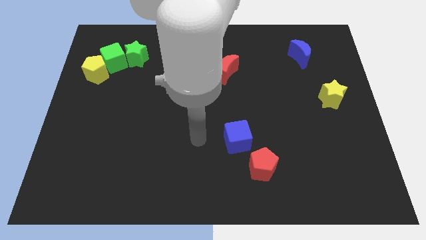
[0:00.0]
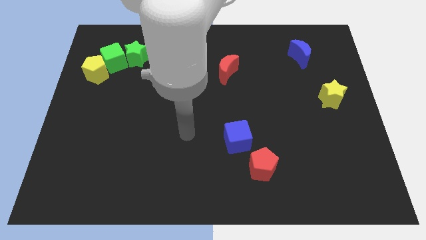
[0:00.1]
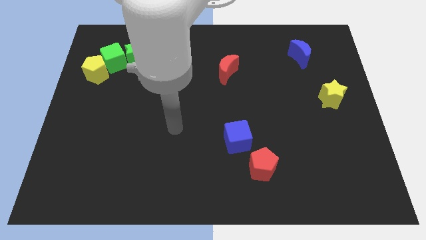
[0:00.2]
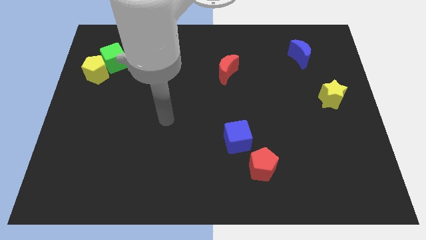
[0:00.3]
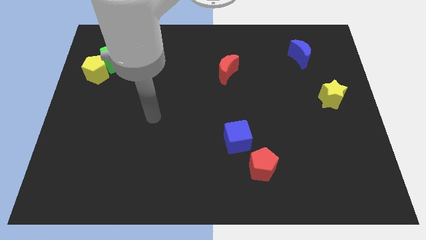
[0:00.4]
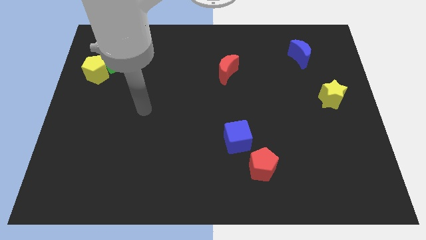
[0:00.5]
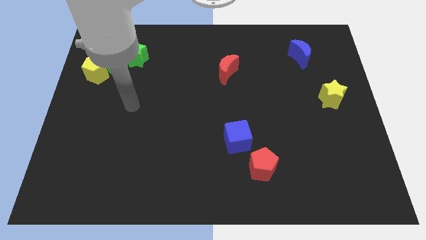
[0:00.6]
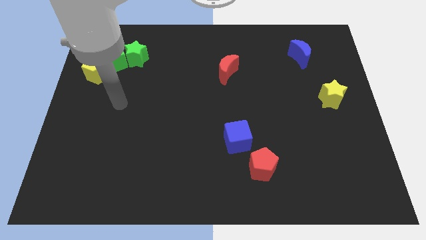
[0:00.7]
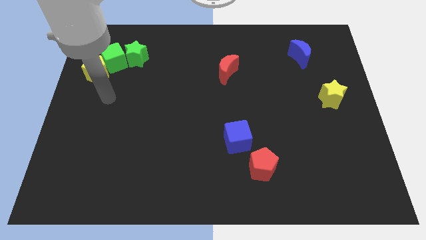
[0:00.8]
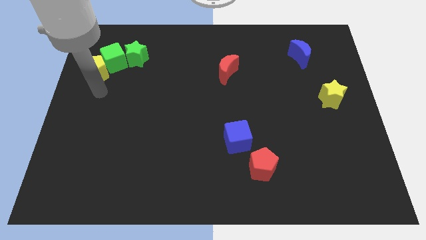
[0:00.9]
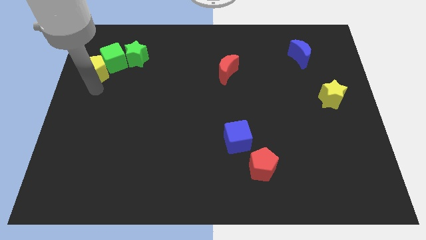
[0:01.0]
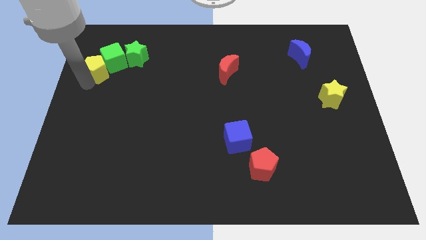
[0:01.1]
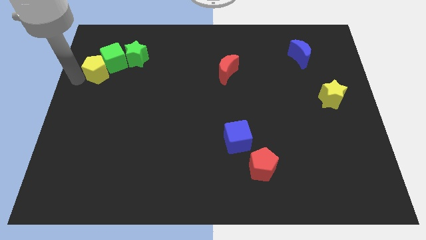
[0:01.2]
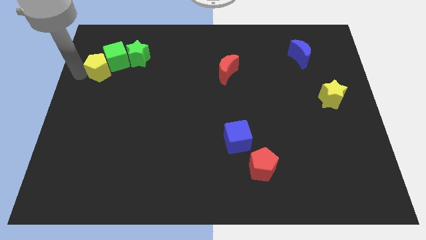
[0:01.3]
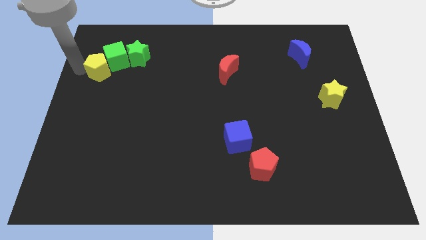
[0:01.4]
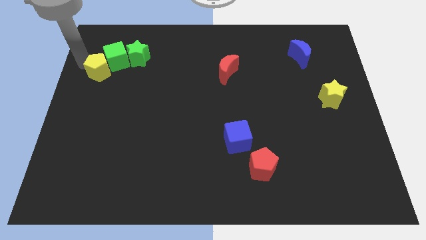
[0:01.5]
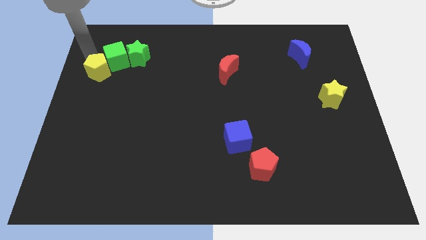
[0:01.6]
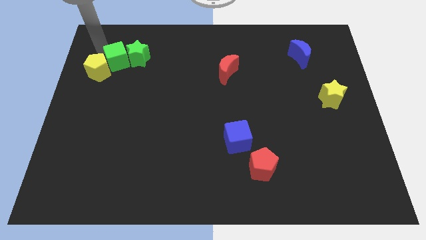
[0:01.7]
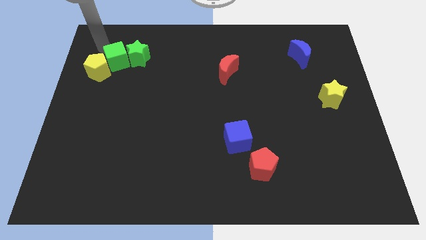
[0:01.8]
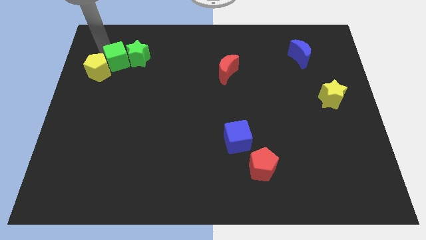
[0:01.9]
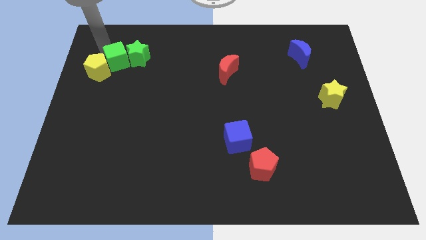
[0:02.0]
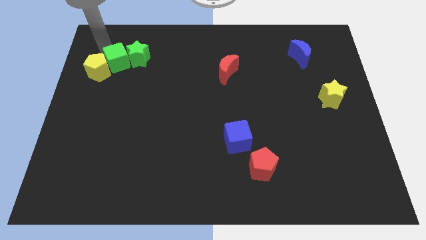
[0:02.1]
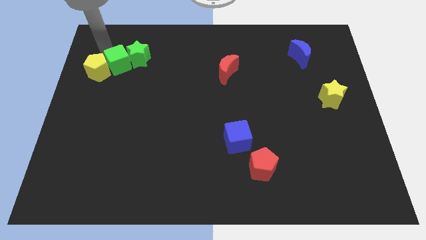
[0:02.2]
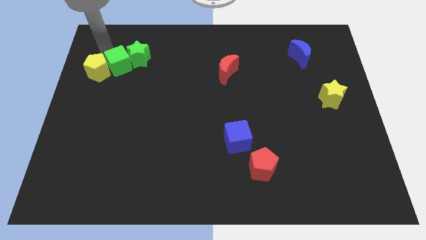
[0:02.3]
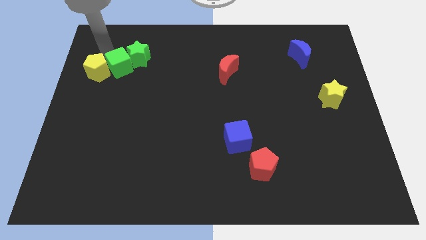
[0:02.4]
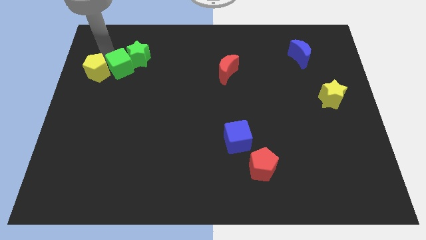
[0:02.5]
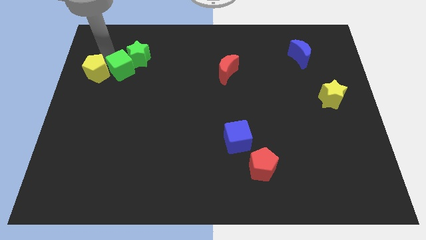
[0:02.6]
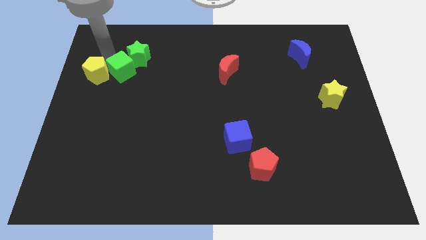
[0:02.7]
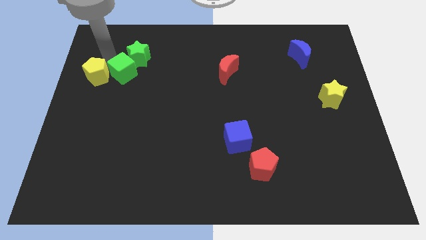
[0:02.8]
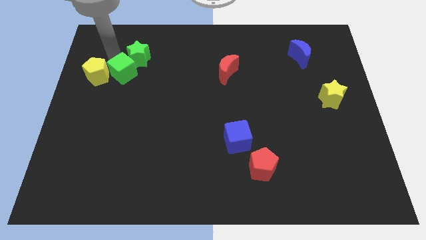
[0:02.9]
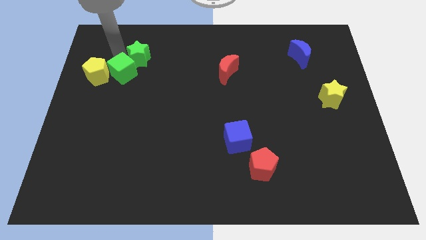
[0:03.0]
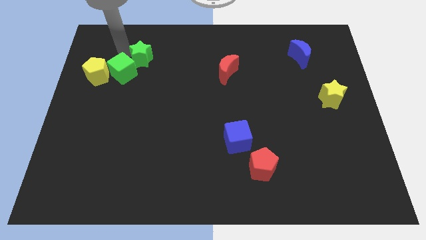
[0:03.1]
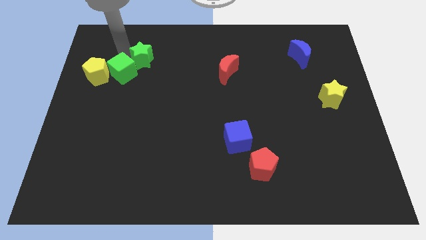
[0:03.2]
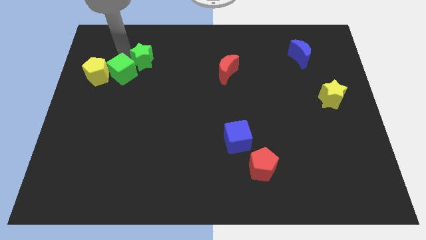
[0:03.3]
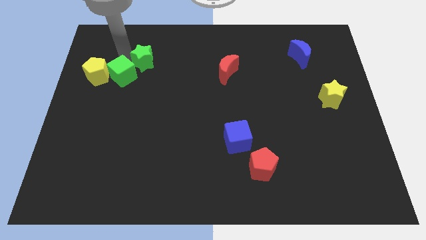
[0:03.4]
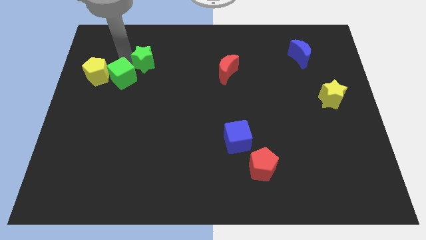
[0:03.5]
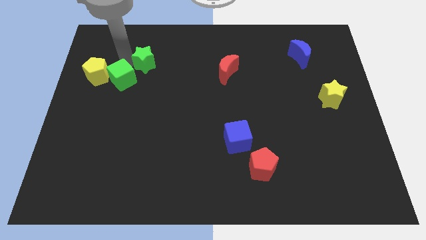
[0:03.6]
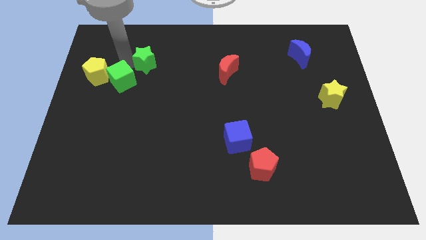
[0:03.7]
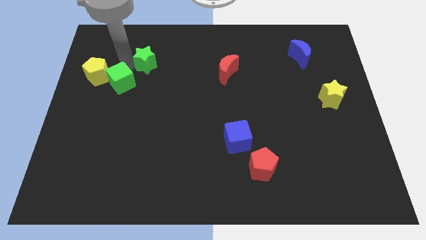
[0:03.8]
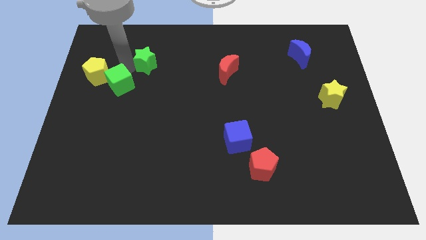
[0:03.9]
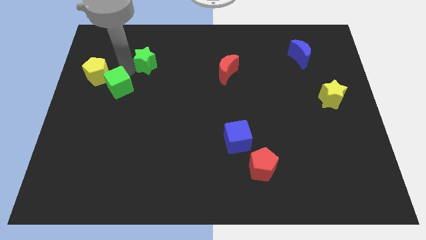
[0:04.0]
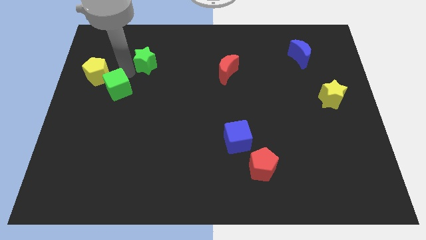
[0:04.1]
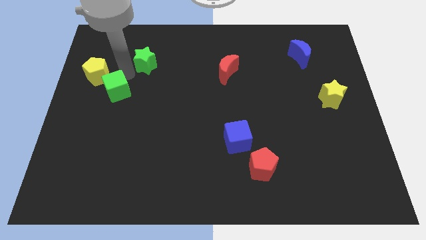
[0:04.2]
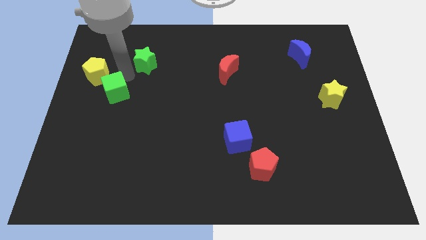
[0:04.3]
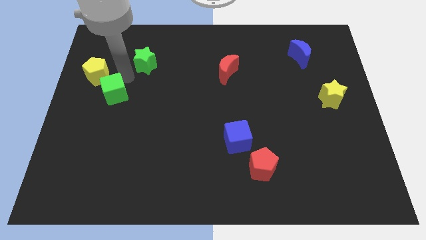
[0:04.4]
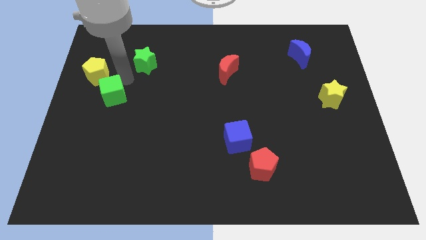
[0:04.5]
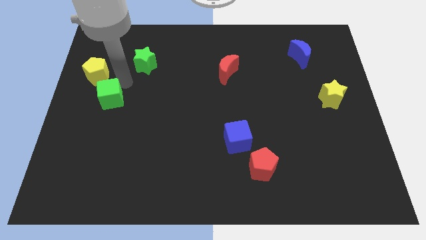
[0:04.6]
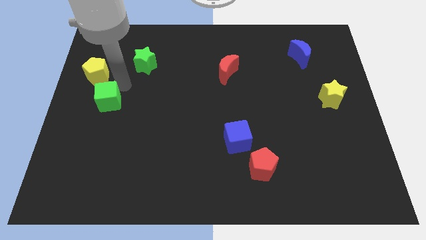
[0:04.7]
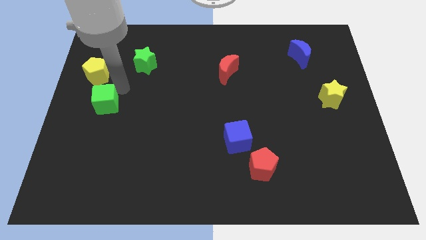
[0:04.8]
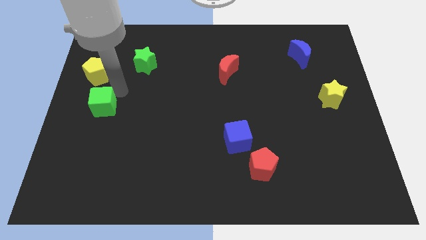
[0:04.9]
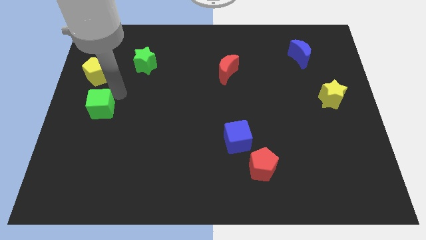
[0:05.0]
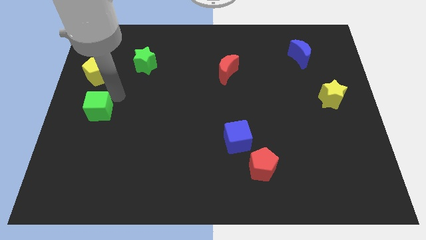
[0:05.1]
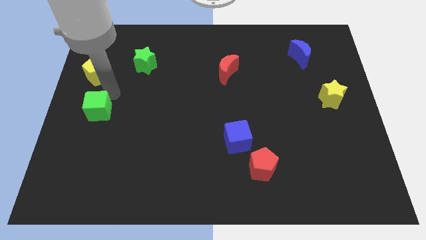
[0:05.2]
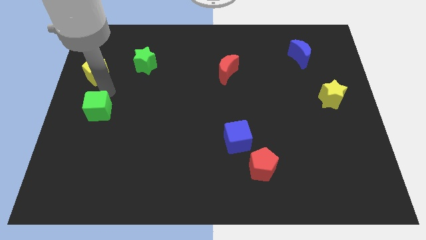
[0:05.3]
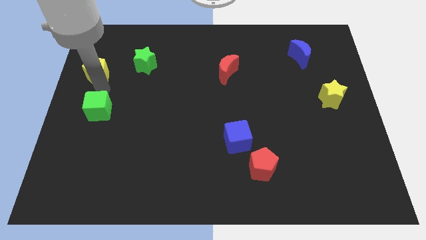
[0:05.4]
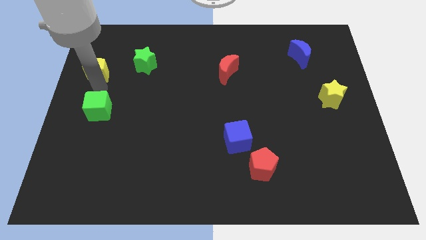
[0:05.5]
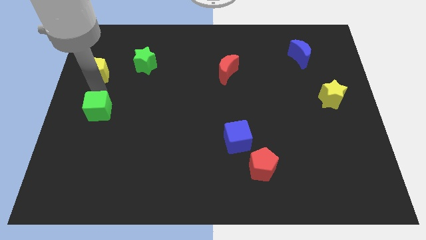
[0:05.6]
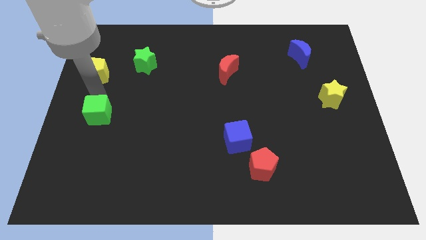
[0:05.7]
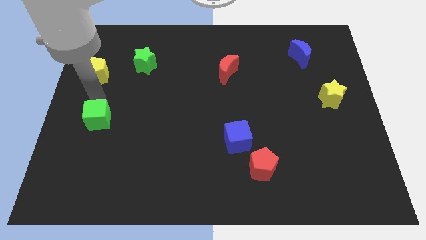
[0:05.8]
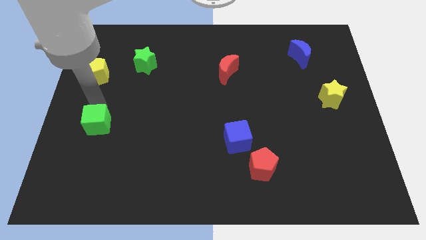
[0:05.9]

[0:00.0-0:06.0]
slide the green cube down

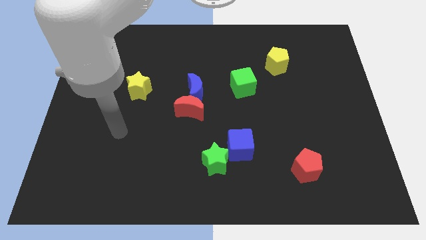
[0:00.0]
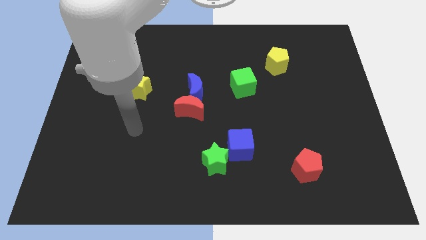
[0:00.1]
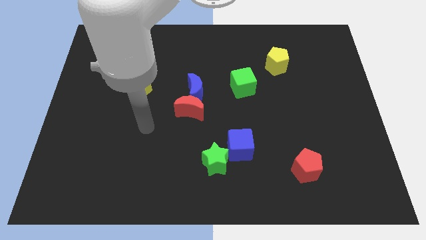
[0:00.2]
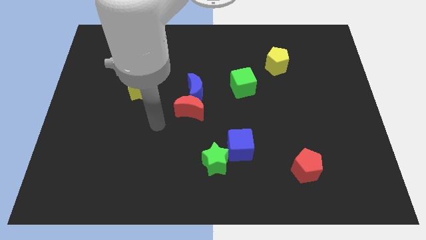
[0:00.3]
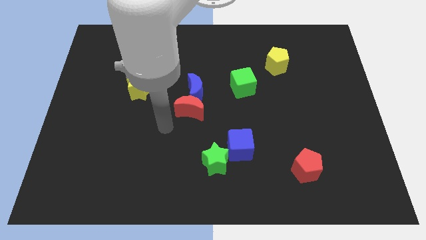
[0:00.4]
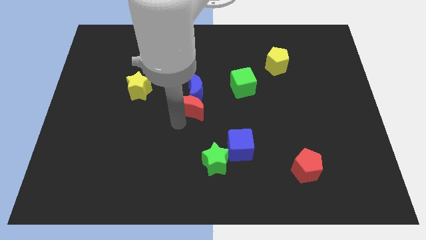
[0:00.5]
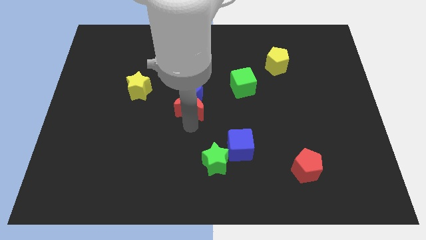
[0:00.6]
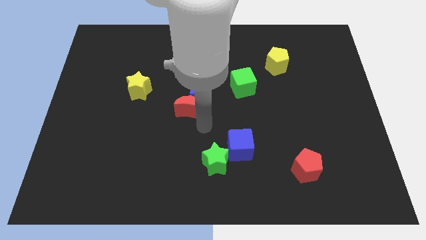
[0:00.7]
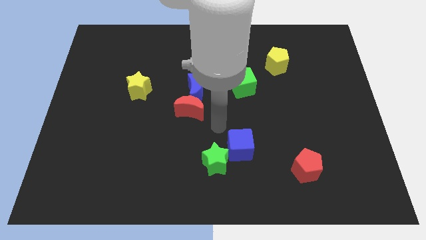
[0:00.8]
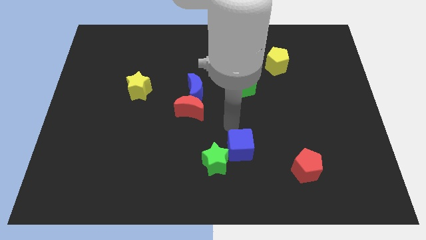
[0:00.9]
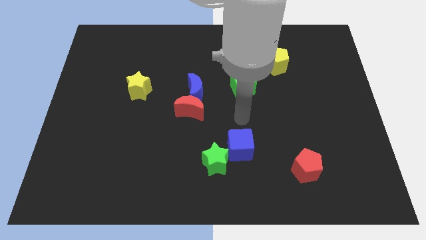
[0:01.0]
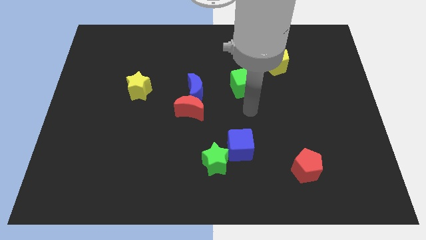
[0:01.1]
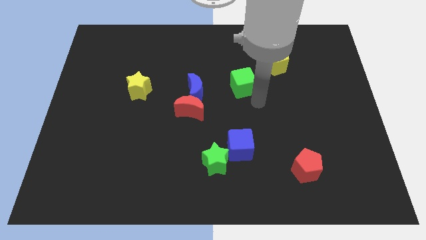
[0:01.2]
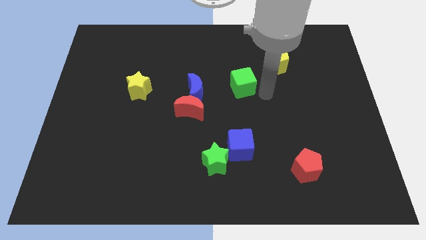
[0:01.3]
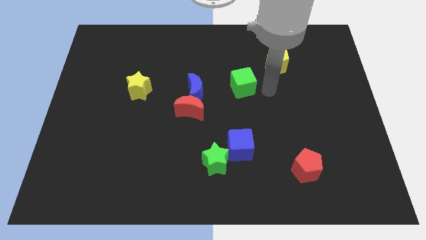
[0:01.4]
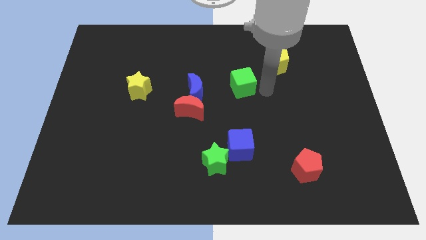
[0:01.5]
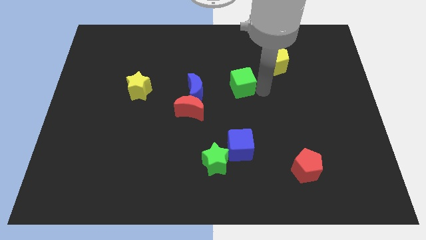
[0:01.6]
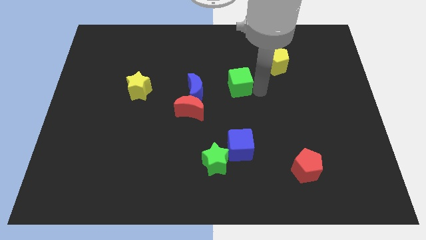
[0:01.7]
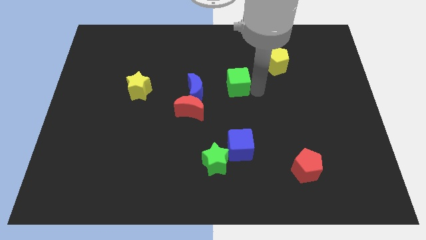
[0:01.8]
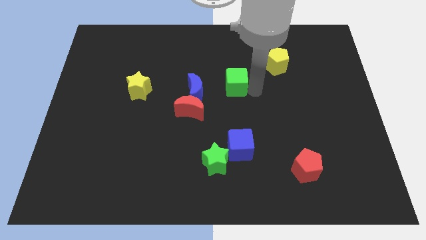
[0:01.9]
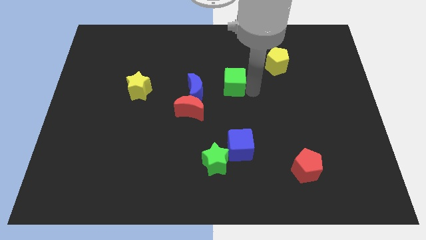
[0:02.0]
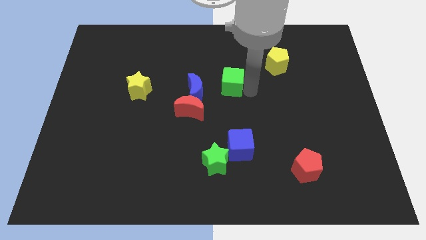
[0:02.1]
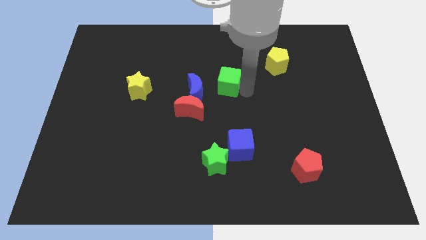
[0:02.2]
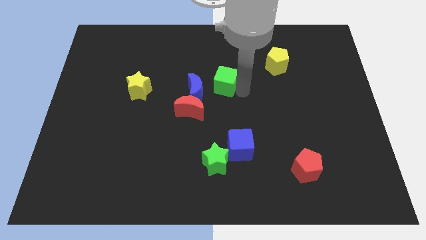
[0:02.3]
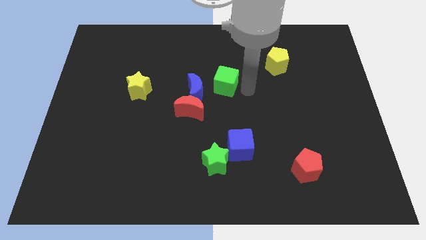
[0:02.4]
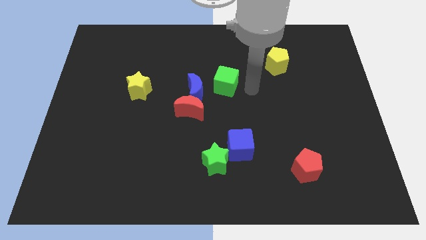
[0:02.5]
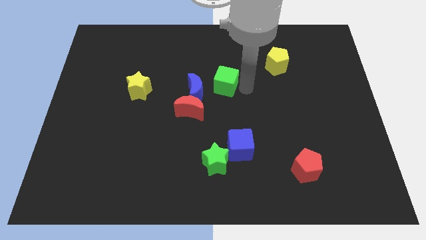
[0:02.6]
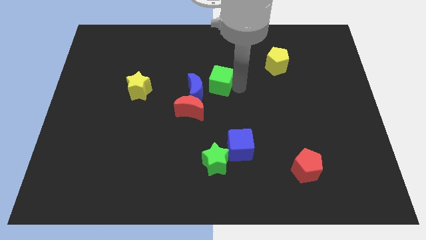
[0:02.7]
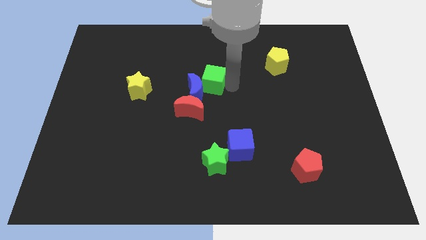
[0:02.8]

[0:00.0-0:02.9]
slightly move the green cube to the left
